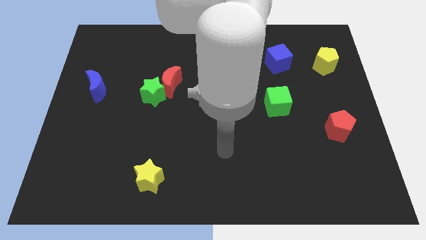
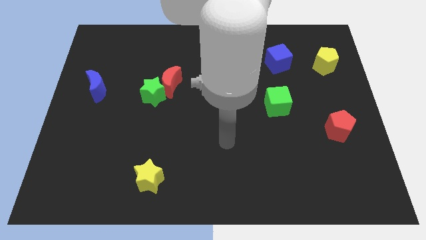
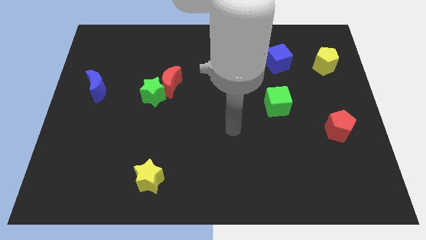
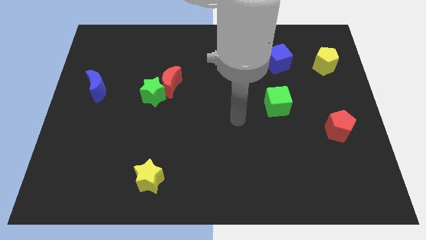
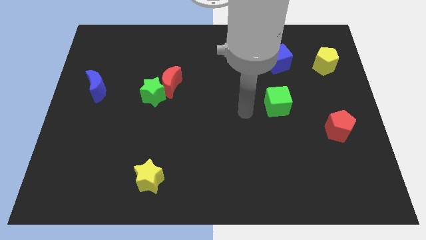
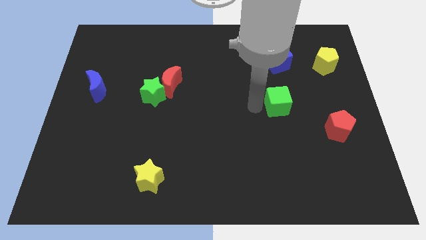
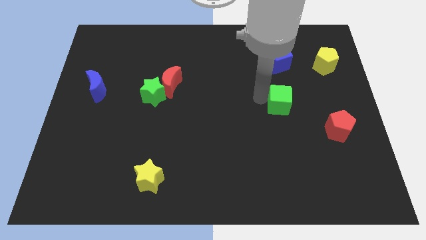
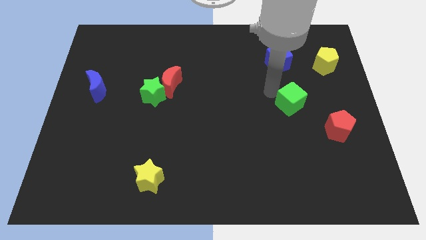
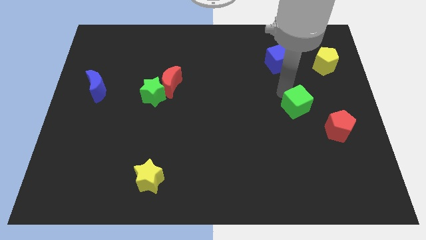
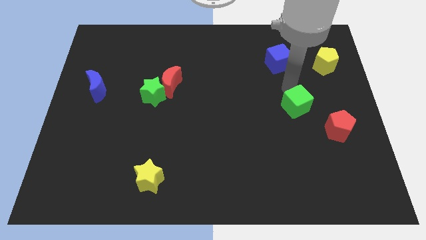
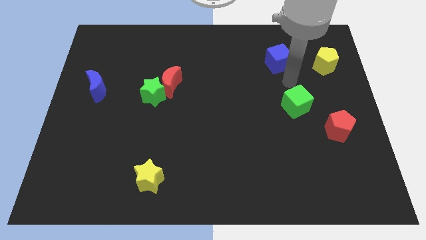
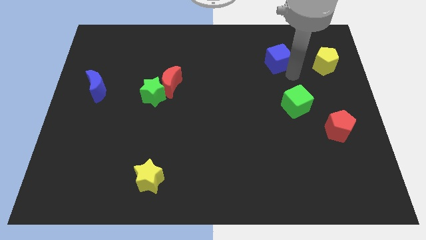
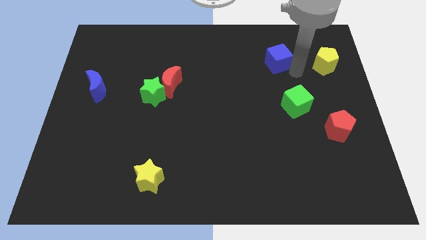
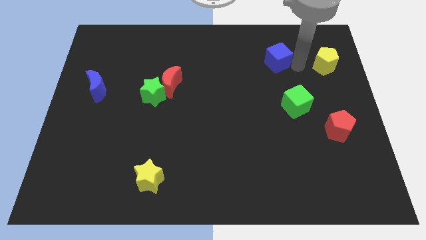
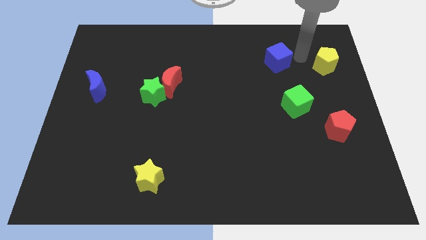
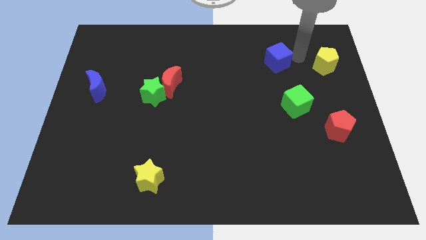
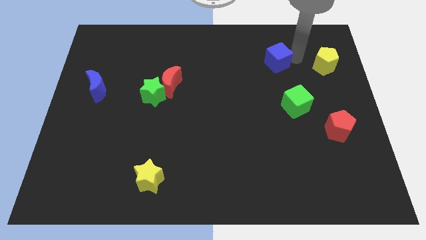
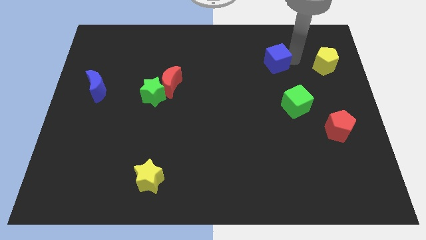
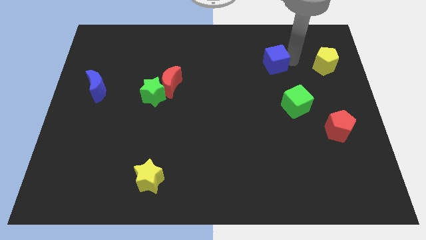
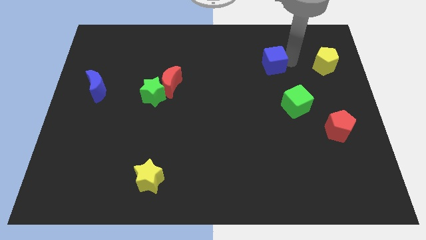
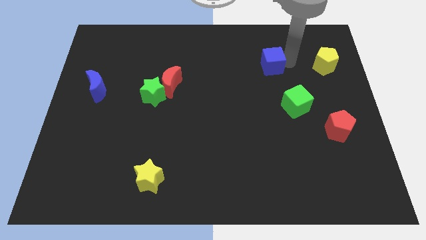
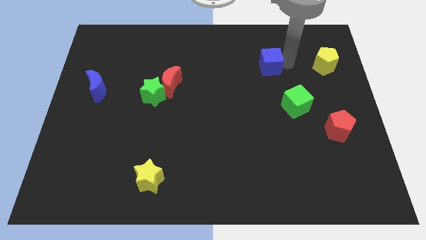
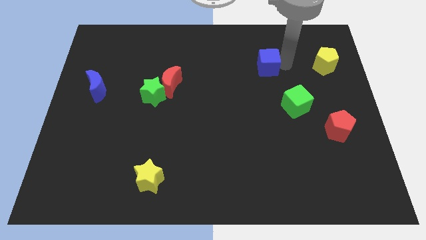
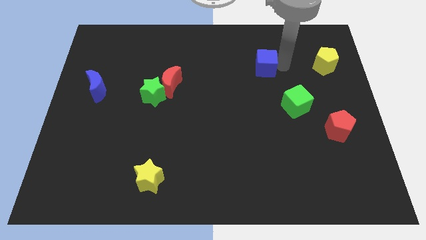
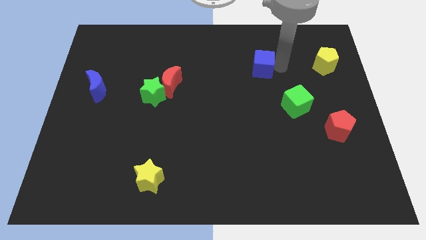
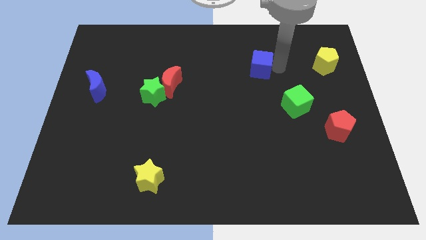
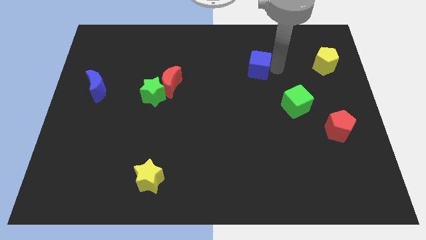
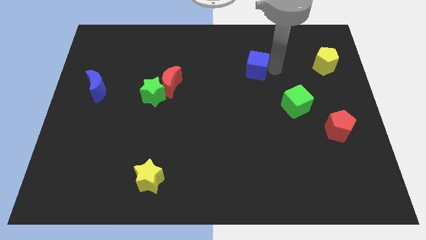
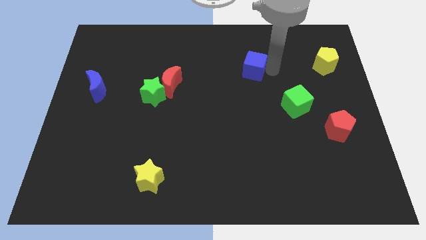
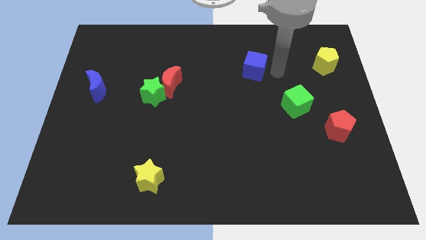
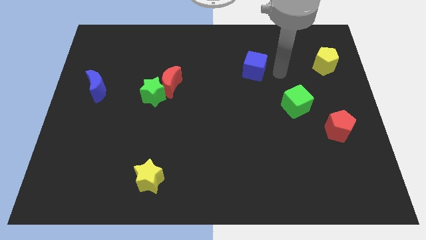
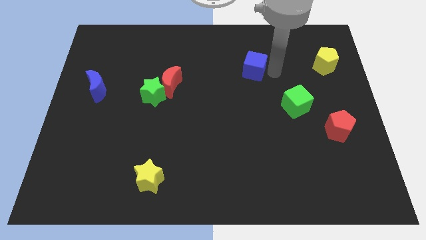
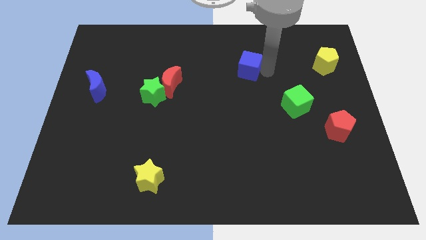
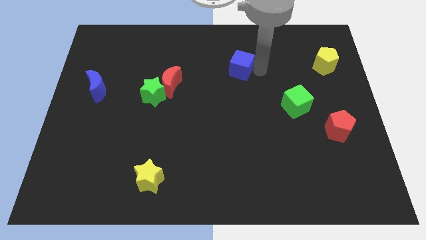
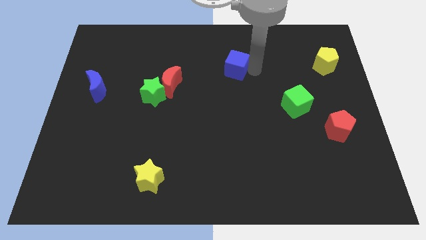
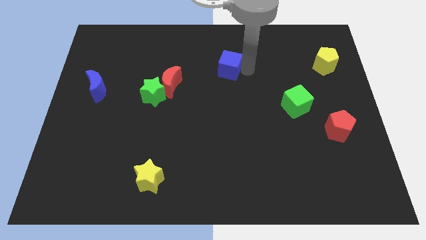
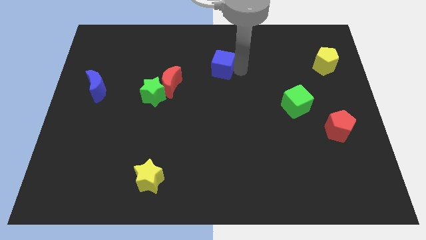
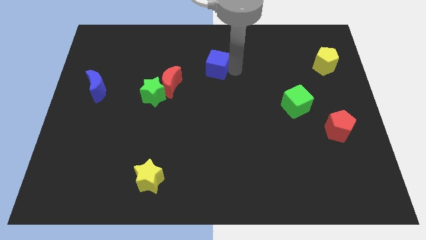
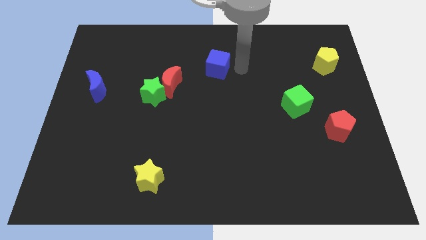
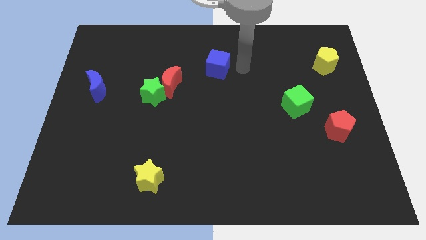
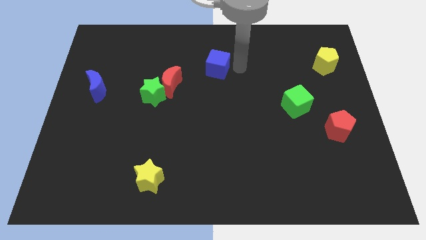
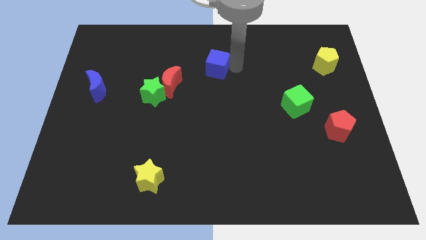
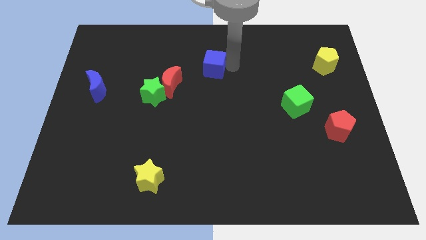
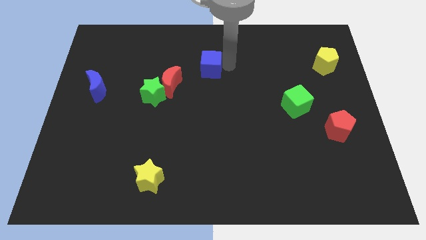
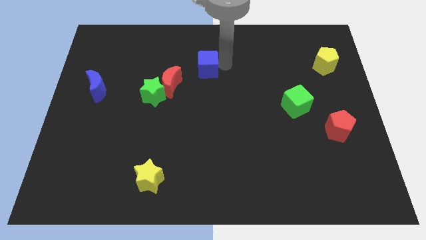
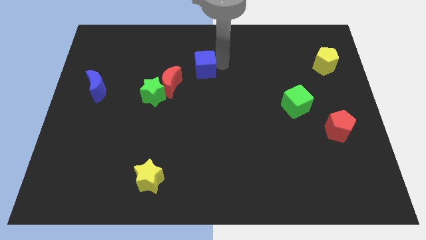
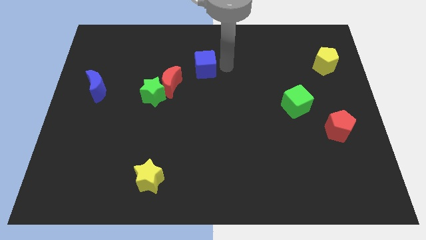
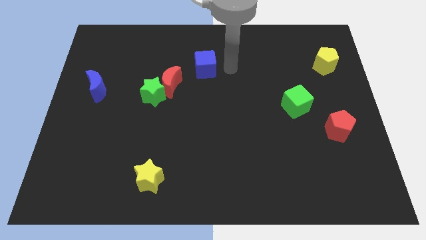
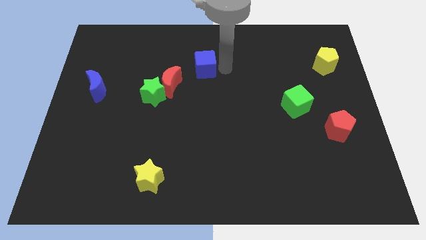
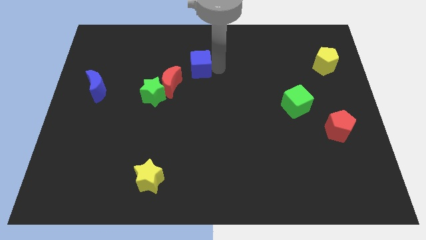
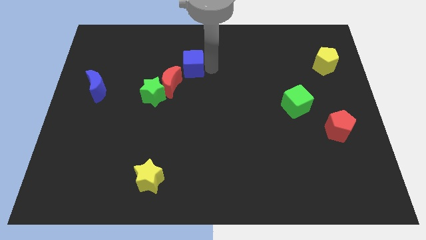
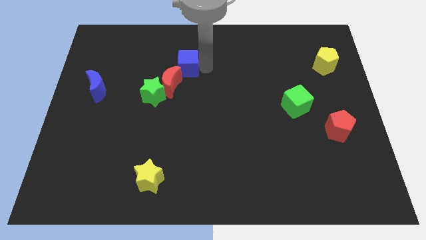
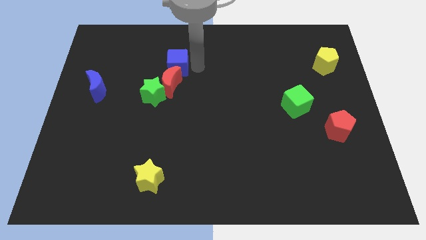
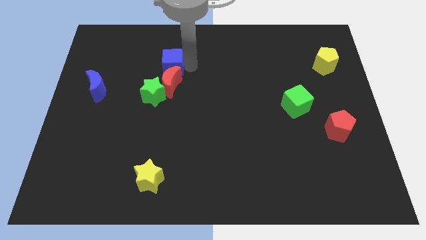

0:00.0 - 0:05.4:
push the blue cube to the top left of the red moon

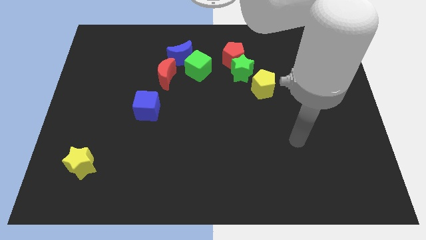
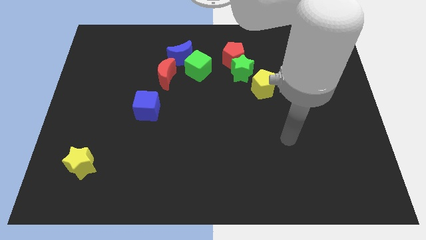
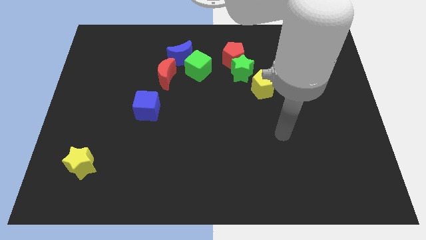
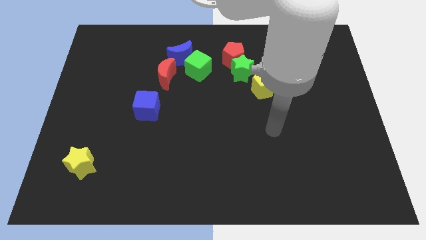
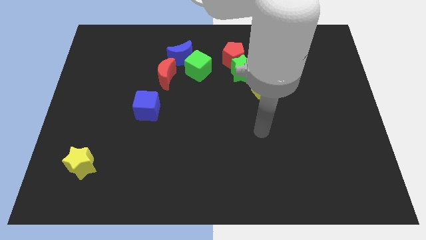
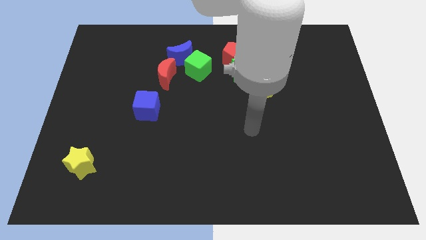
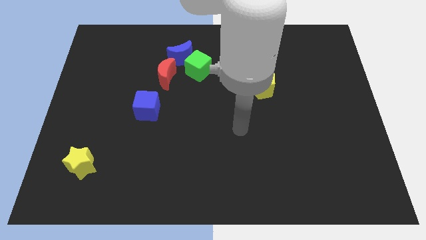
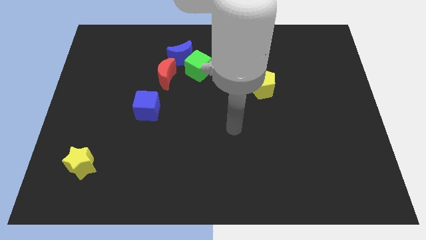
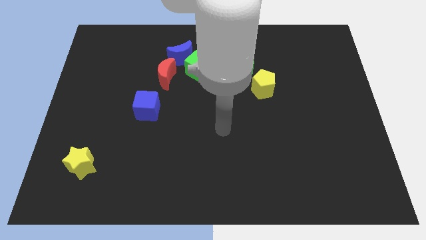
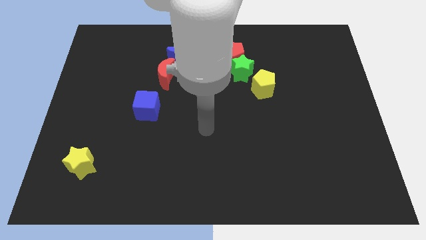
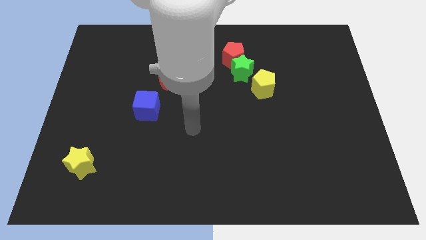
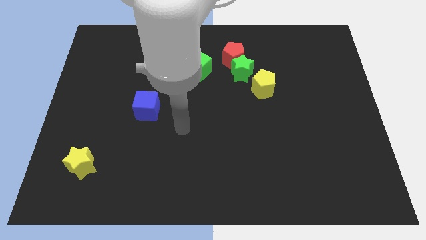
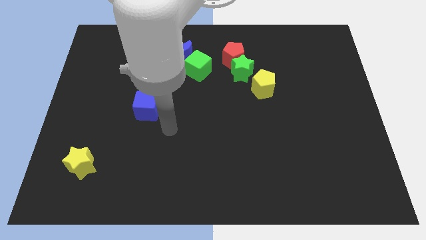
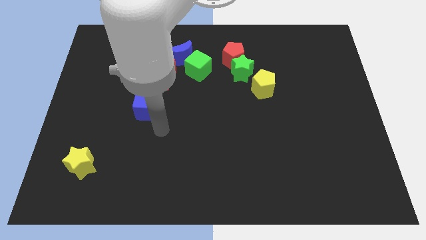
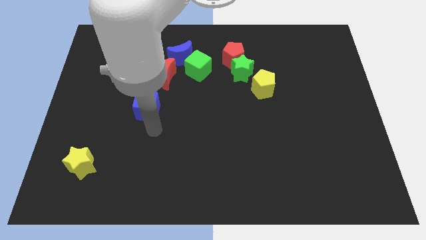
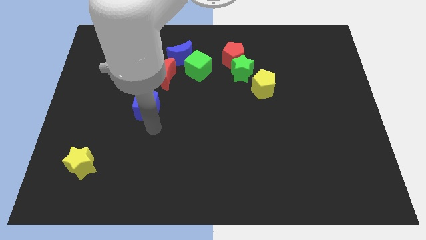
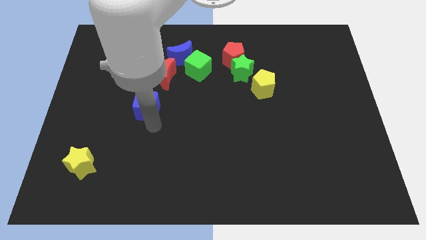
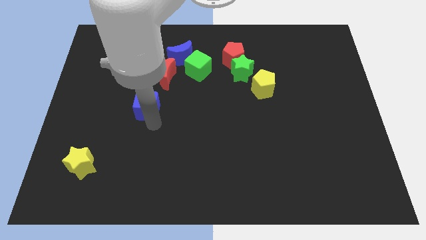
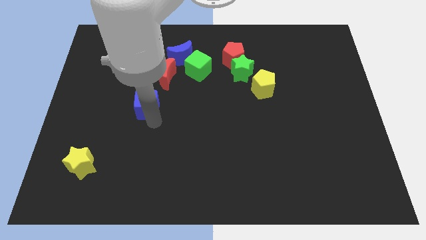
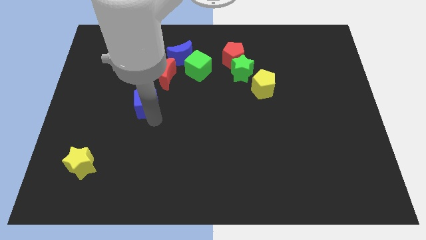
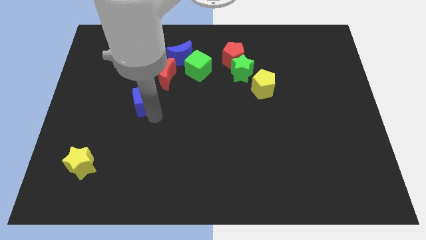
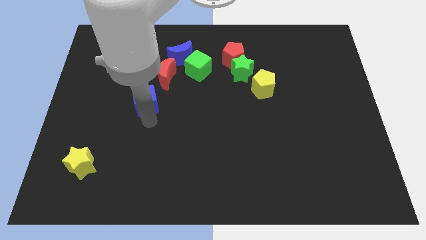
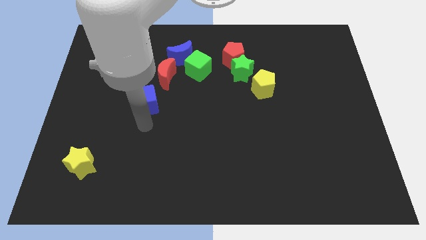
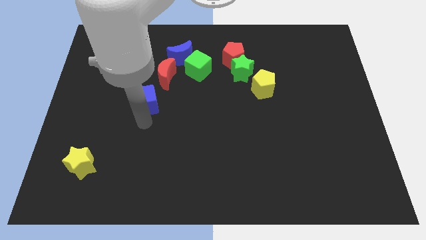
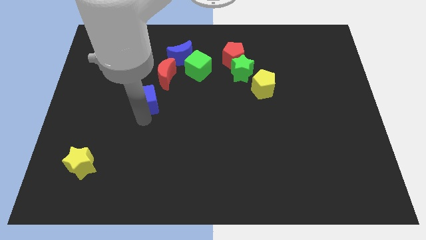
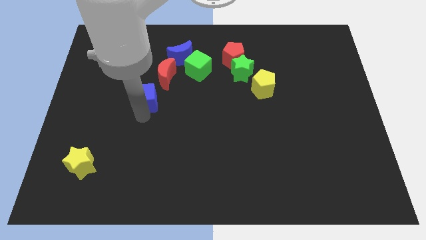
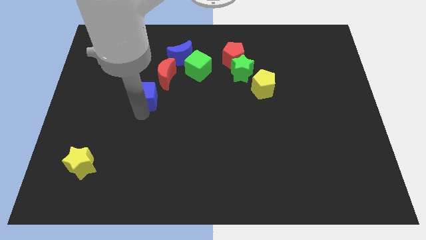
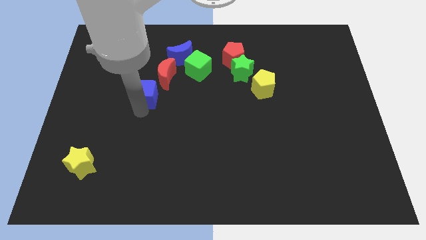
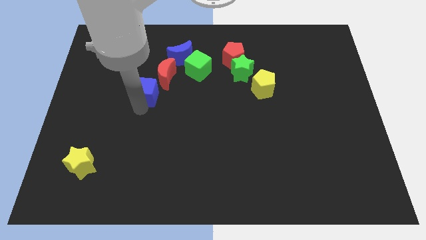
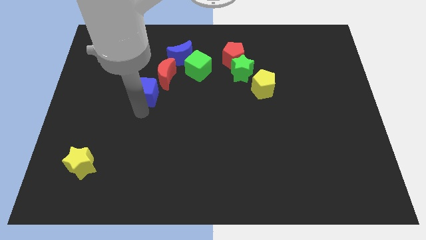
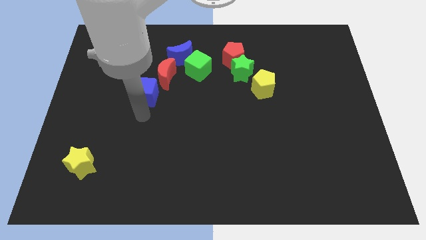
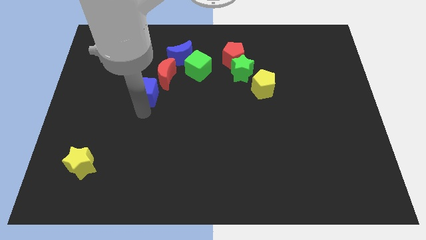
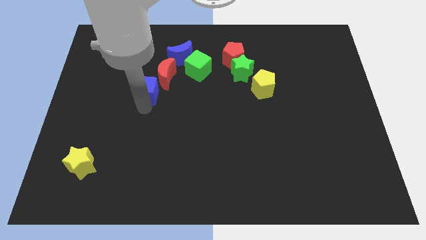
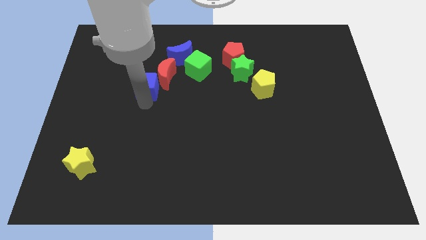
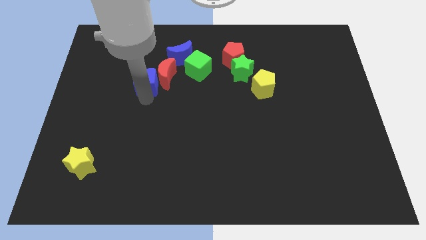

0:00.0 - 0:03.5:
slide the blue cube to the bottom left side of the blue moon
